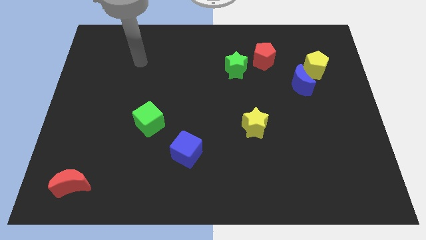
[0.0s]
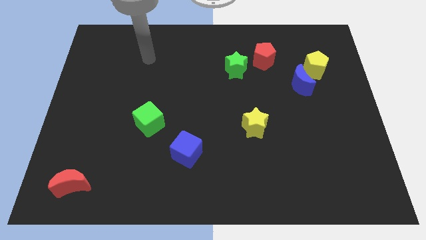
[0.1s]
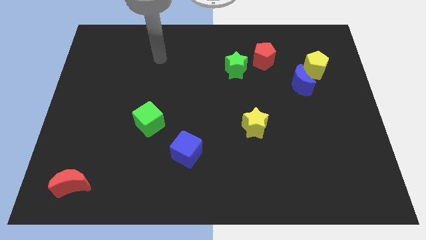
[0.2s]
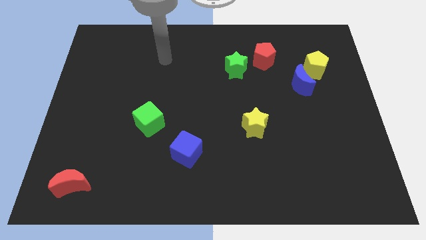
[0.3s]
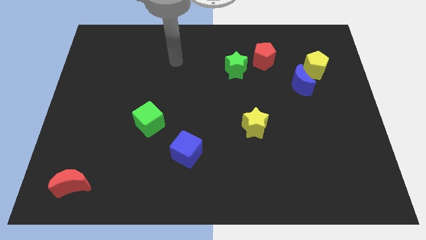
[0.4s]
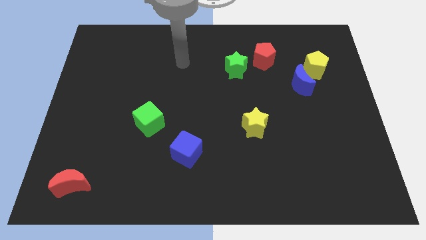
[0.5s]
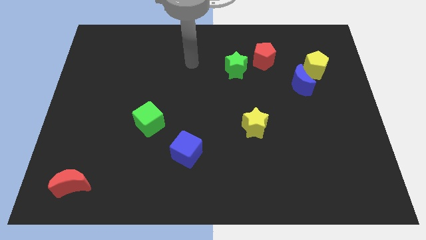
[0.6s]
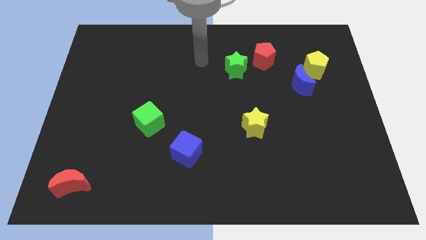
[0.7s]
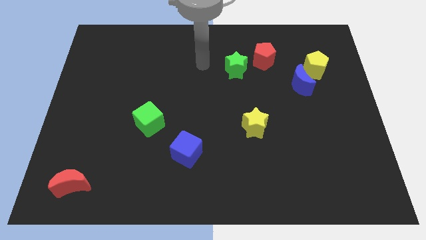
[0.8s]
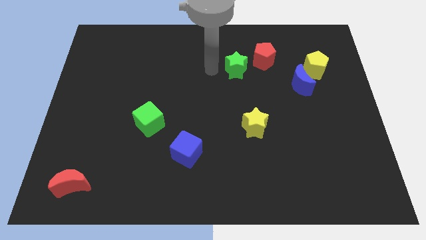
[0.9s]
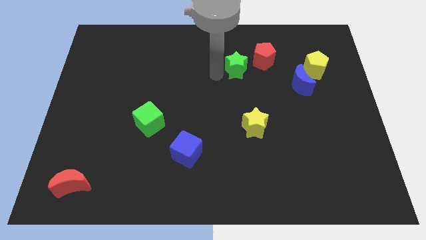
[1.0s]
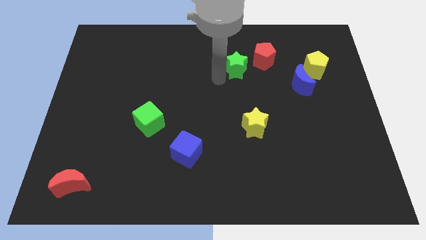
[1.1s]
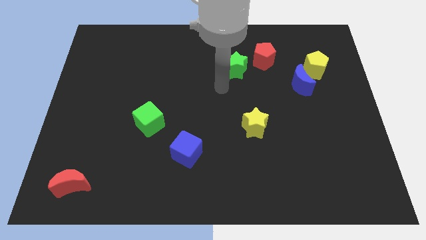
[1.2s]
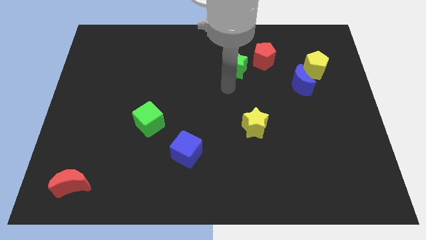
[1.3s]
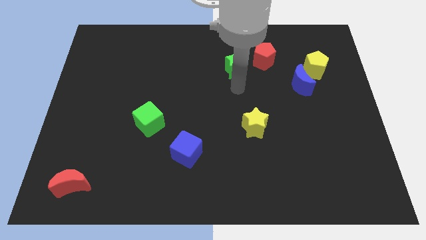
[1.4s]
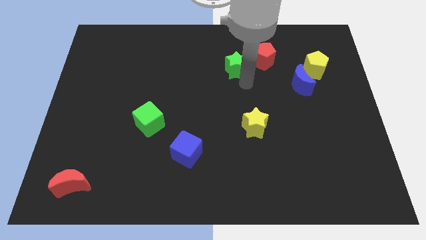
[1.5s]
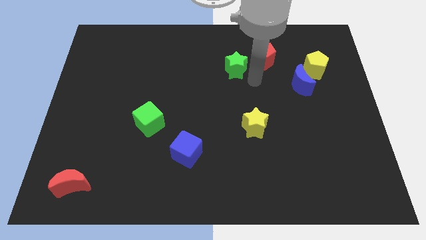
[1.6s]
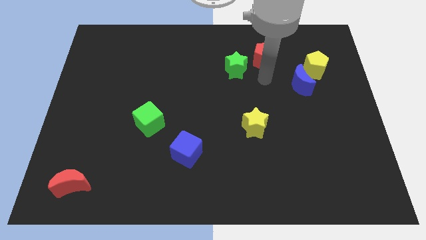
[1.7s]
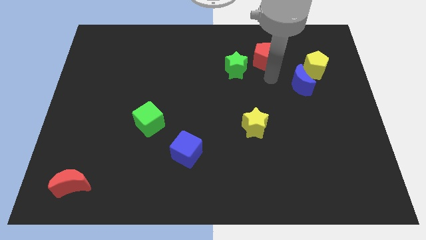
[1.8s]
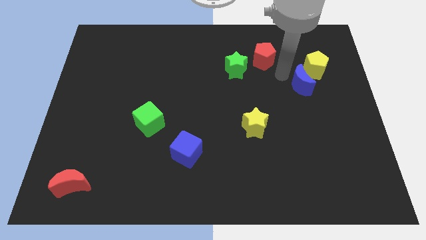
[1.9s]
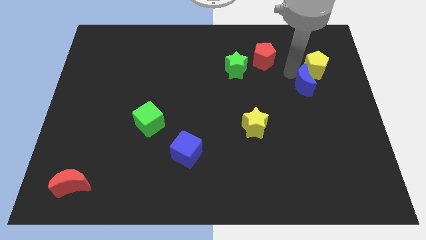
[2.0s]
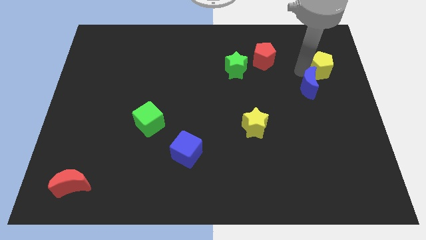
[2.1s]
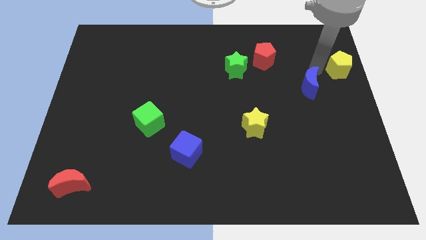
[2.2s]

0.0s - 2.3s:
pull the blue moon apart from the yellow pentagon

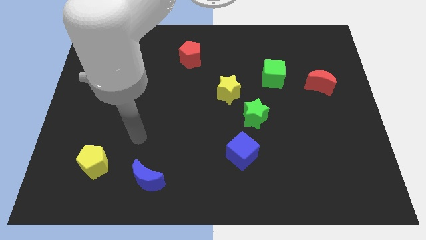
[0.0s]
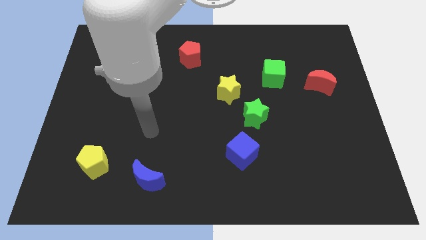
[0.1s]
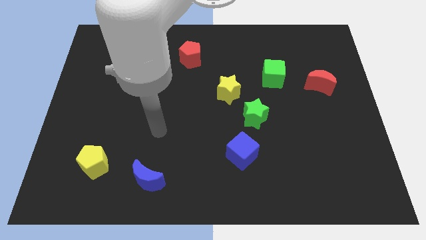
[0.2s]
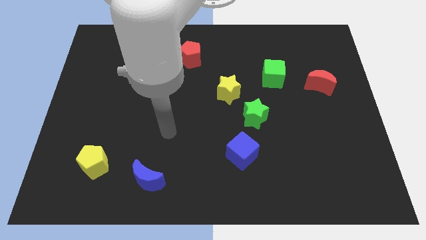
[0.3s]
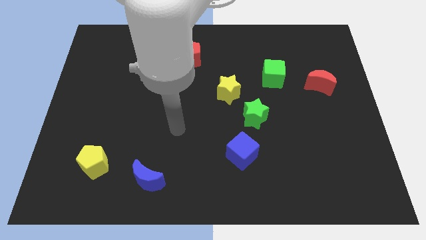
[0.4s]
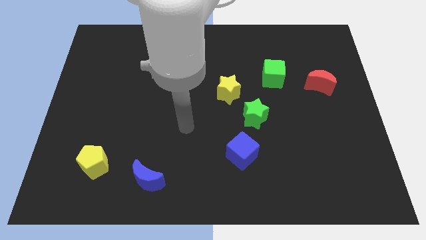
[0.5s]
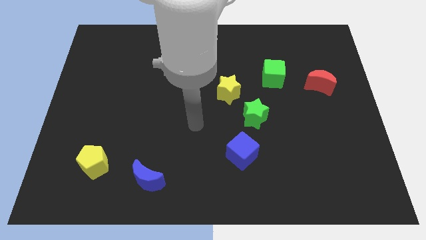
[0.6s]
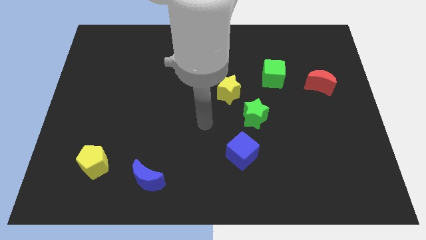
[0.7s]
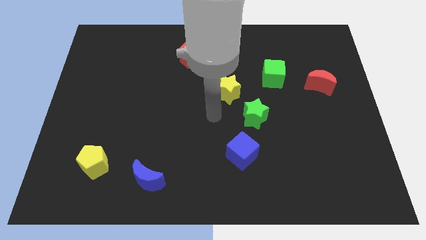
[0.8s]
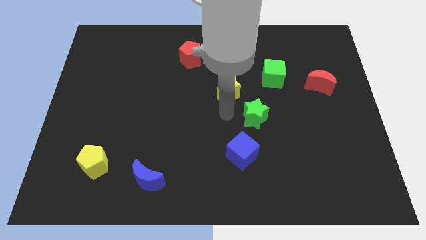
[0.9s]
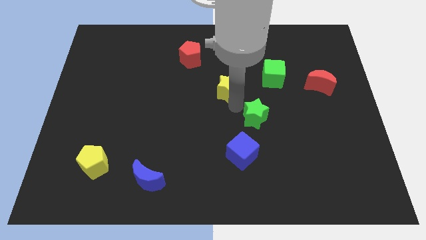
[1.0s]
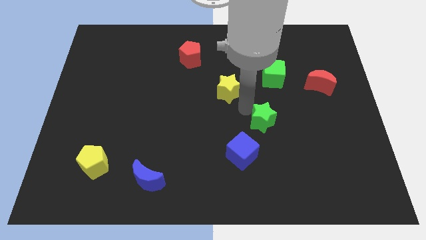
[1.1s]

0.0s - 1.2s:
separate the yellow star from the green star

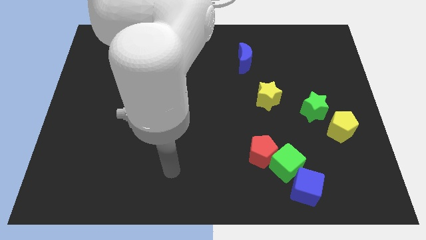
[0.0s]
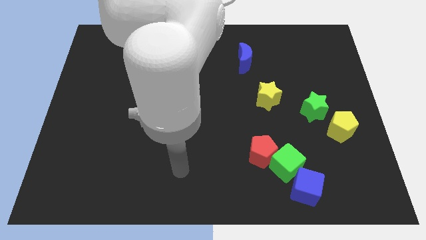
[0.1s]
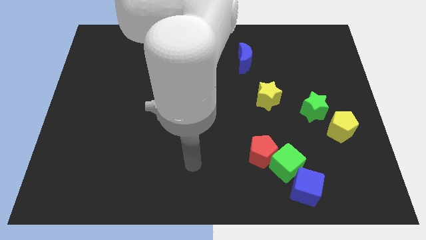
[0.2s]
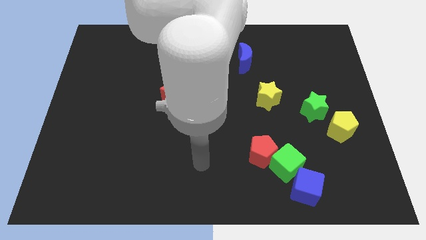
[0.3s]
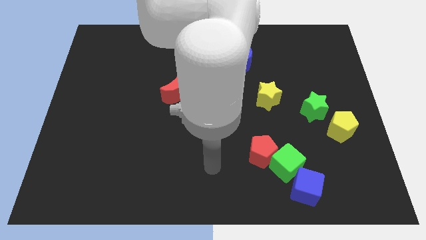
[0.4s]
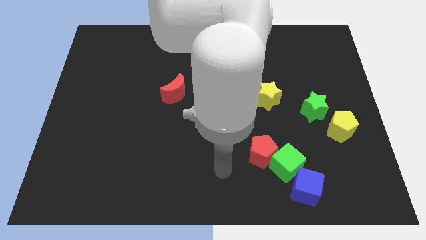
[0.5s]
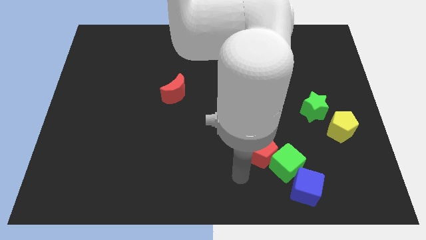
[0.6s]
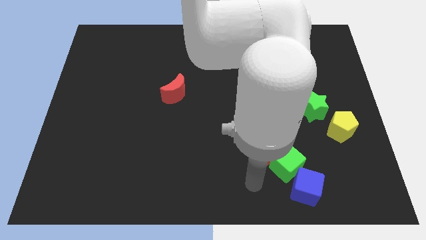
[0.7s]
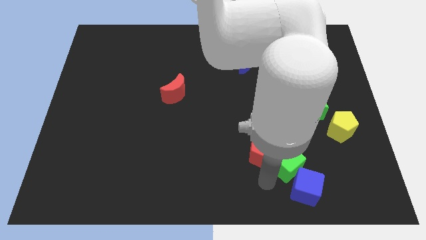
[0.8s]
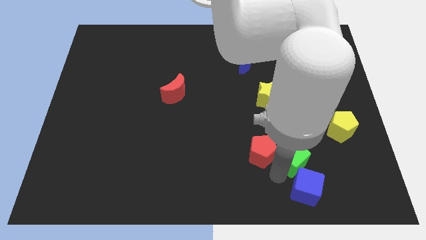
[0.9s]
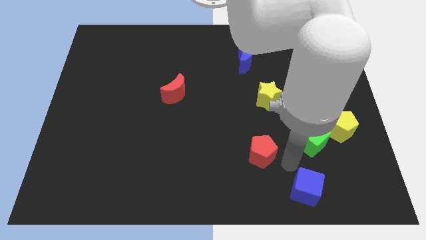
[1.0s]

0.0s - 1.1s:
move the red pentagon away from the green cube

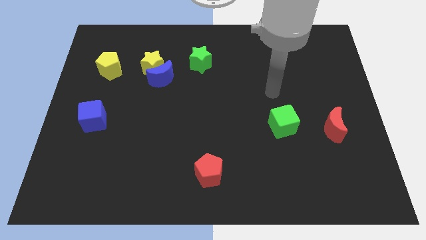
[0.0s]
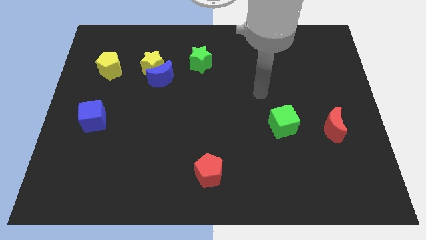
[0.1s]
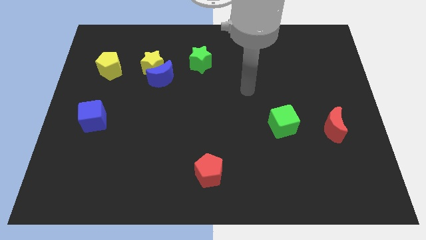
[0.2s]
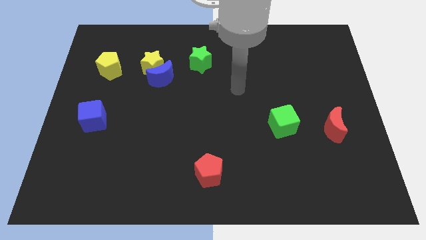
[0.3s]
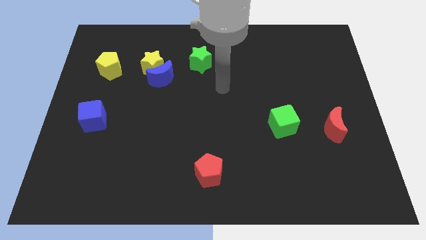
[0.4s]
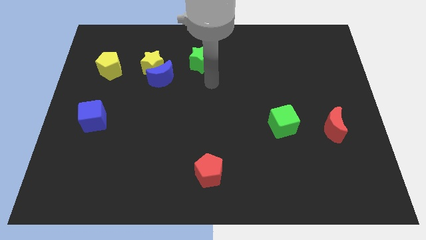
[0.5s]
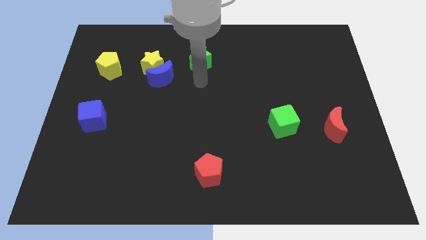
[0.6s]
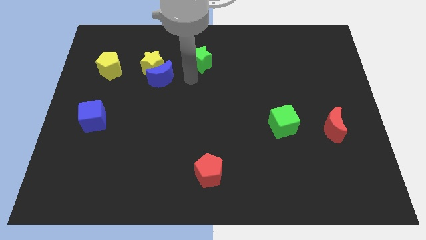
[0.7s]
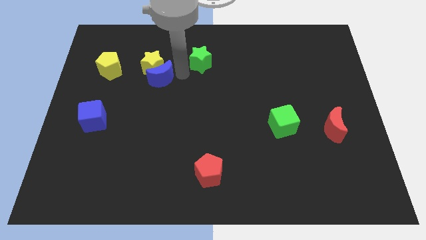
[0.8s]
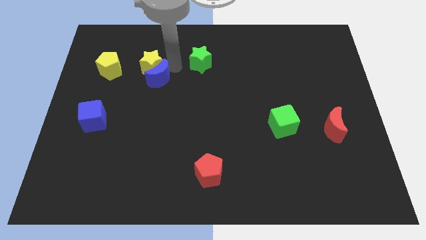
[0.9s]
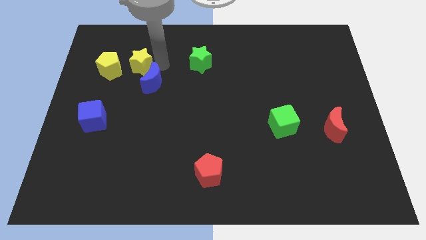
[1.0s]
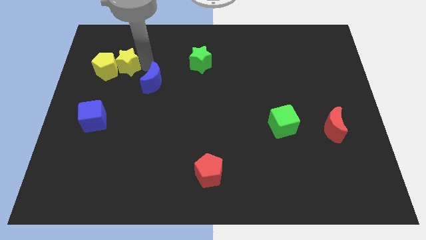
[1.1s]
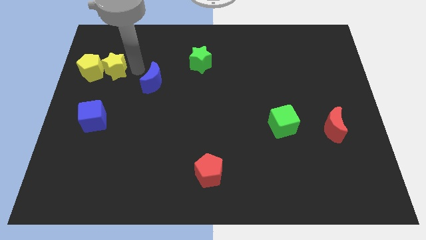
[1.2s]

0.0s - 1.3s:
move the blue moon away from the yellow star

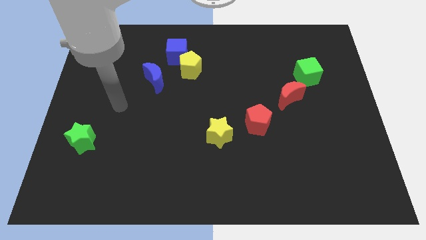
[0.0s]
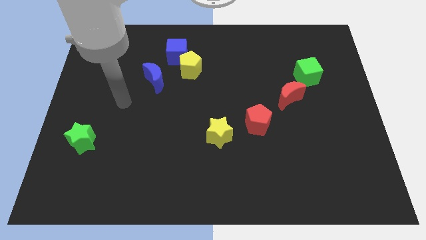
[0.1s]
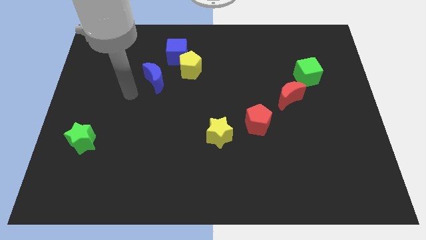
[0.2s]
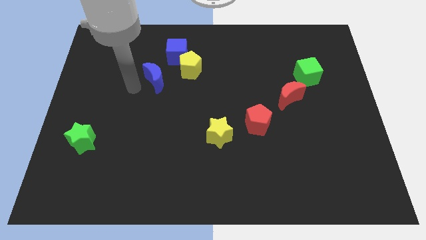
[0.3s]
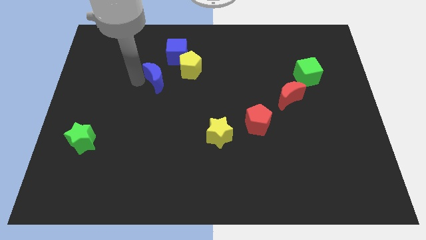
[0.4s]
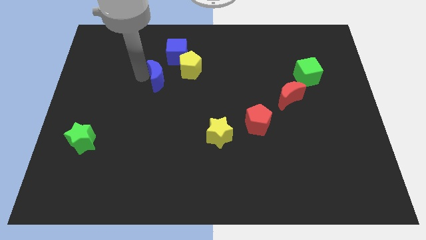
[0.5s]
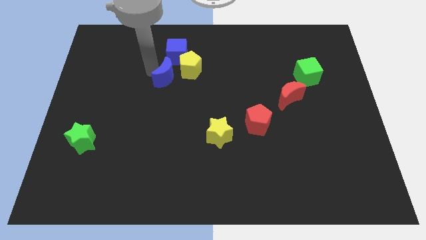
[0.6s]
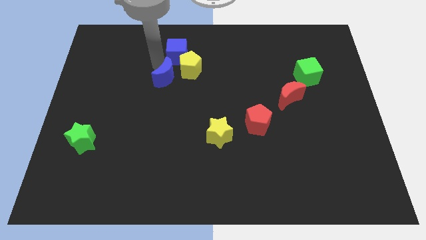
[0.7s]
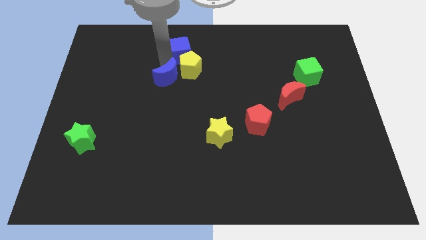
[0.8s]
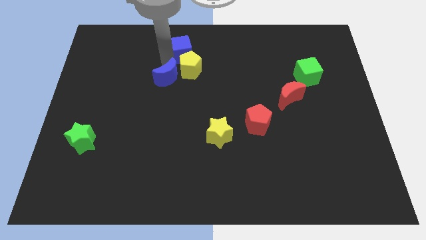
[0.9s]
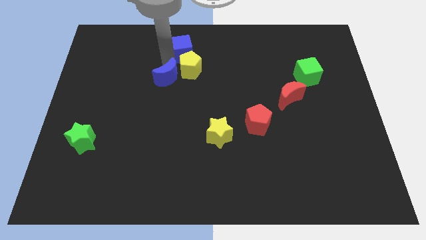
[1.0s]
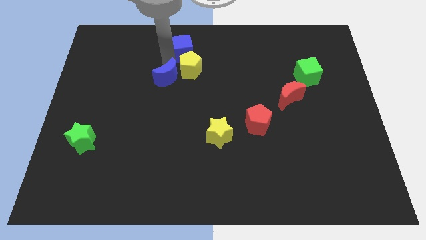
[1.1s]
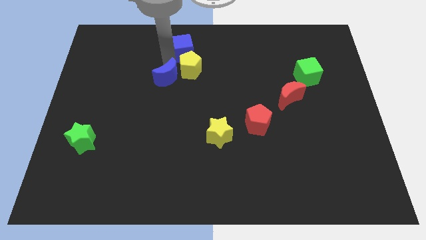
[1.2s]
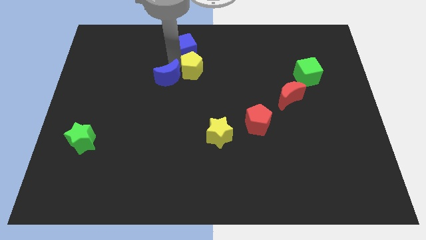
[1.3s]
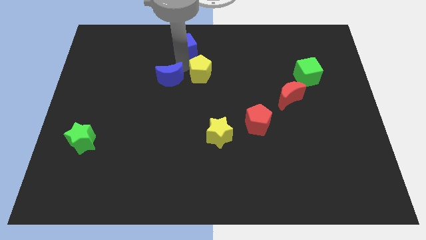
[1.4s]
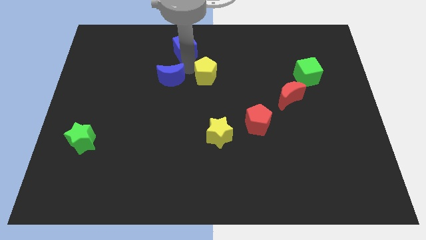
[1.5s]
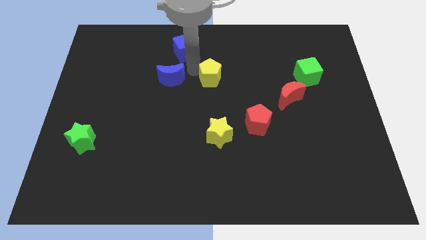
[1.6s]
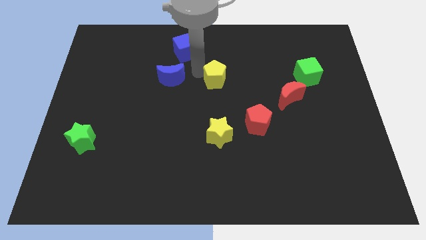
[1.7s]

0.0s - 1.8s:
move the yellow pentagon away from the blue cube and blue moon

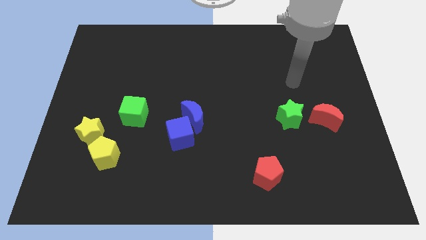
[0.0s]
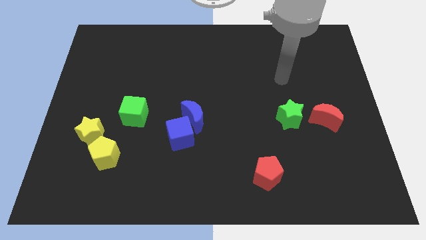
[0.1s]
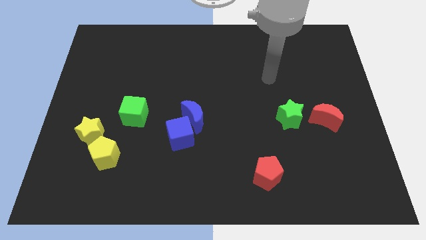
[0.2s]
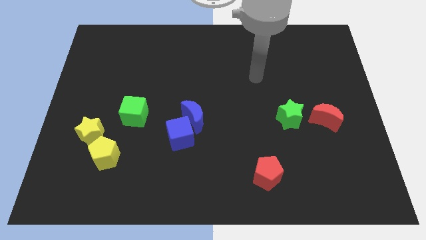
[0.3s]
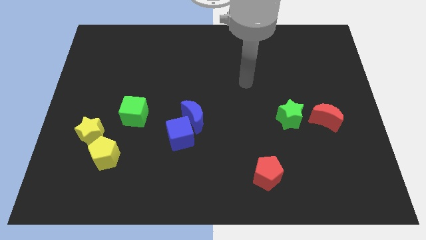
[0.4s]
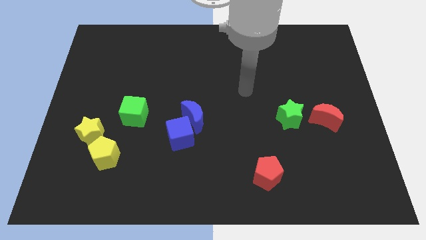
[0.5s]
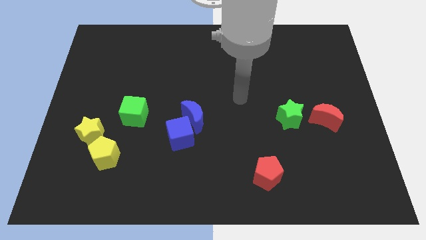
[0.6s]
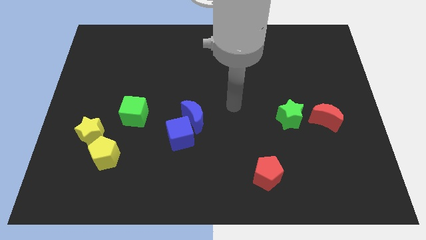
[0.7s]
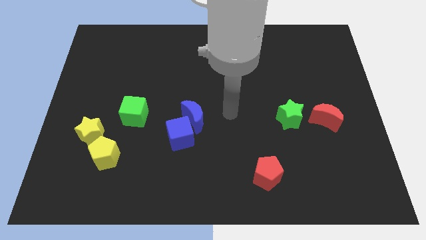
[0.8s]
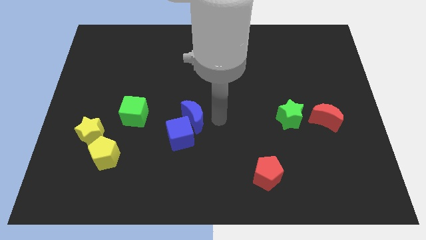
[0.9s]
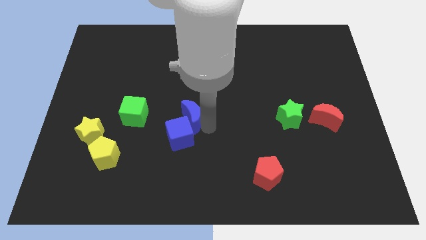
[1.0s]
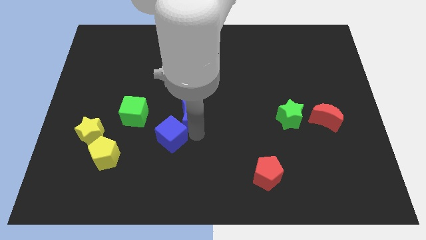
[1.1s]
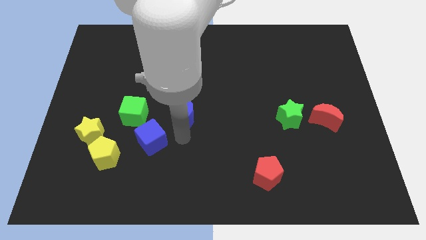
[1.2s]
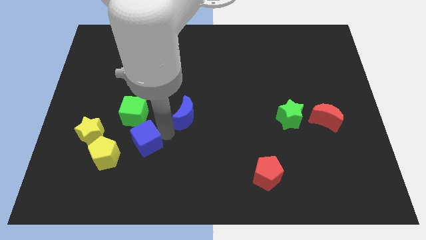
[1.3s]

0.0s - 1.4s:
move the blue moon away from the blue cube

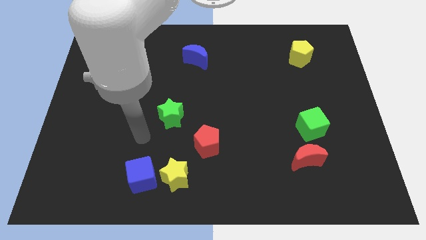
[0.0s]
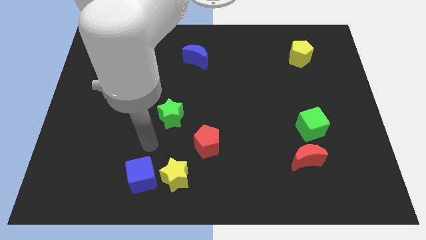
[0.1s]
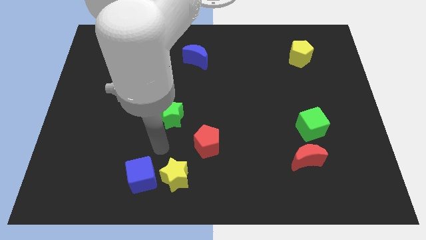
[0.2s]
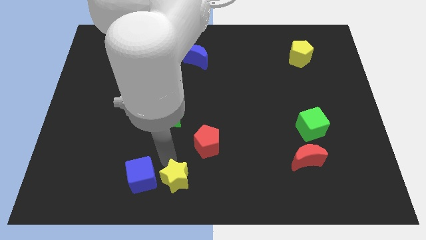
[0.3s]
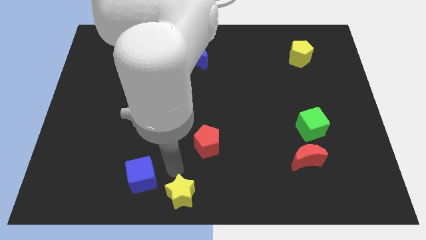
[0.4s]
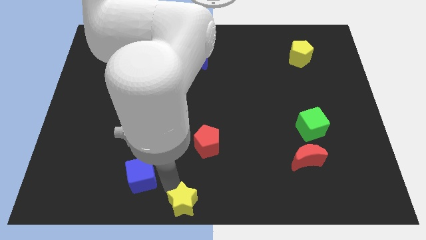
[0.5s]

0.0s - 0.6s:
move the blue cube away from the yellow star
